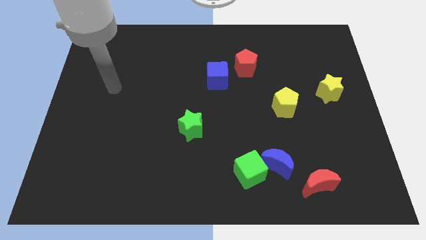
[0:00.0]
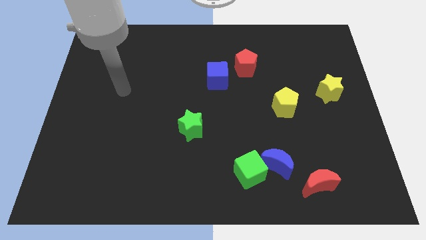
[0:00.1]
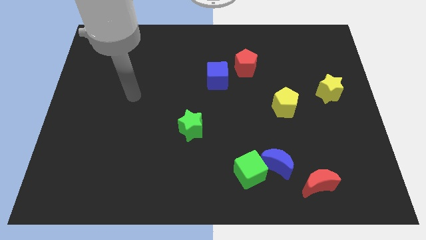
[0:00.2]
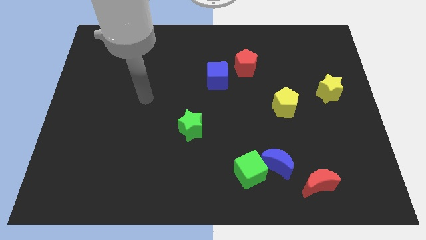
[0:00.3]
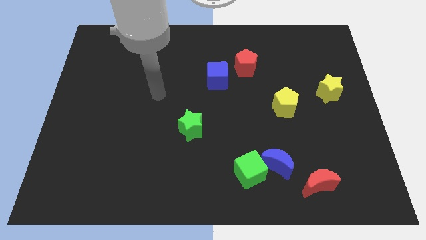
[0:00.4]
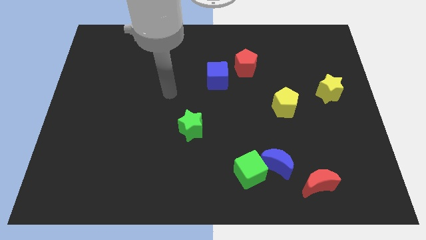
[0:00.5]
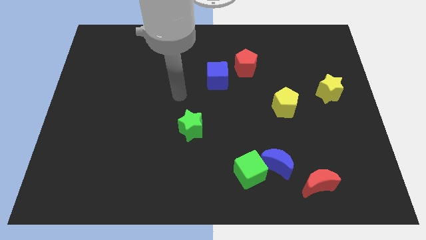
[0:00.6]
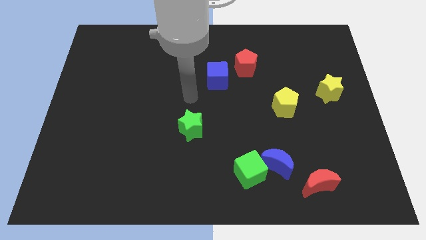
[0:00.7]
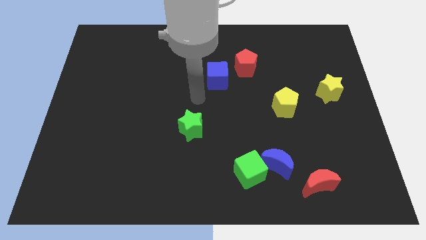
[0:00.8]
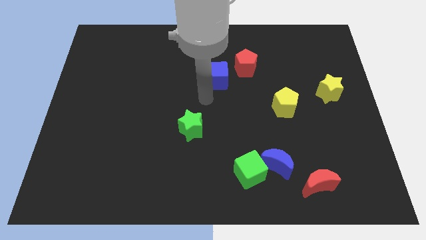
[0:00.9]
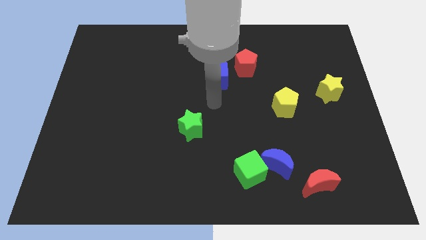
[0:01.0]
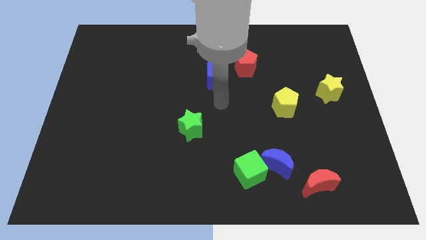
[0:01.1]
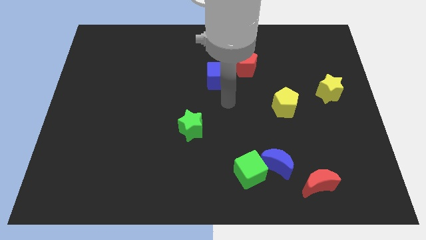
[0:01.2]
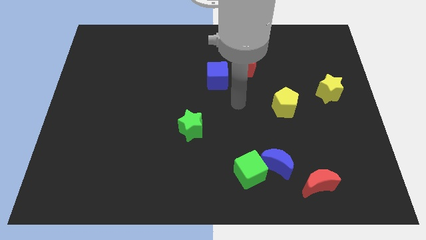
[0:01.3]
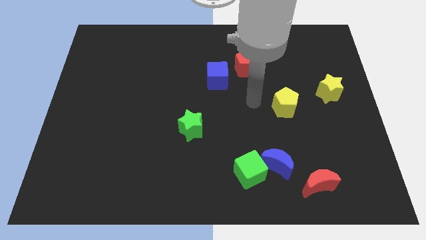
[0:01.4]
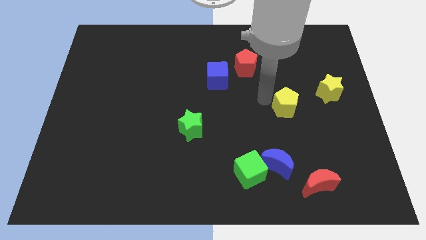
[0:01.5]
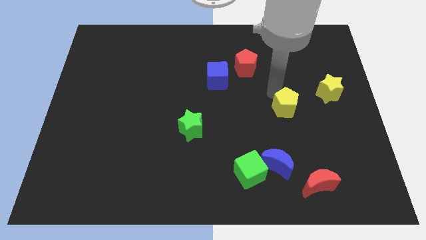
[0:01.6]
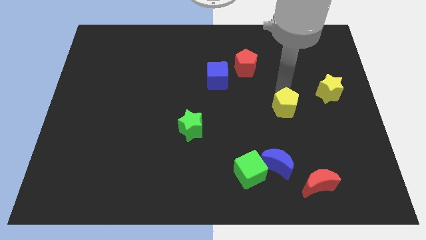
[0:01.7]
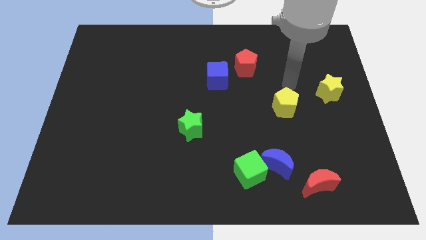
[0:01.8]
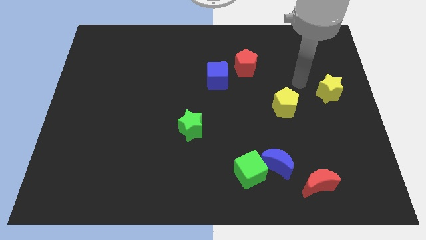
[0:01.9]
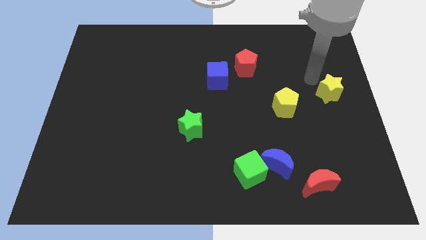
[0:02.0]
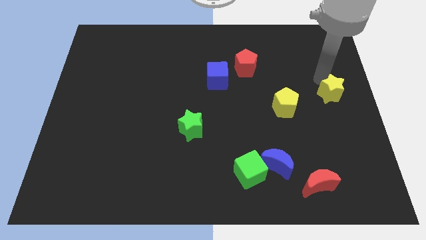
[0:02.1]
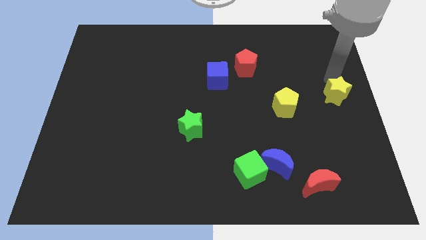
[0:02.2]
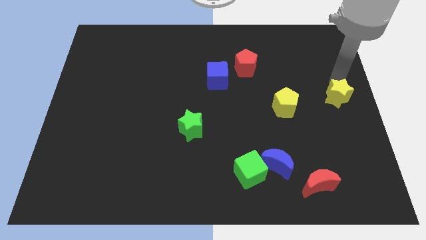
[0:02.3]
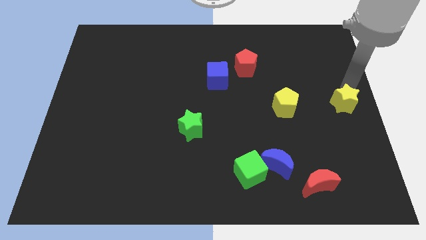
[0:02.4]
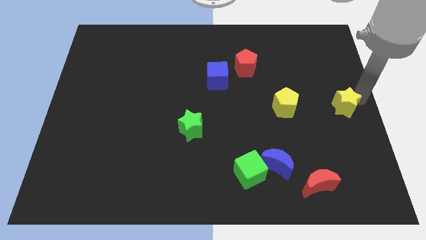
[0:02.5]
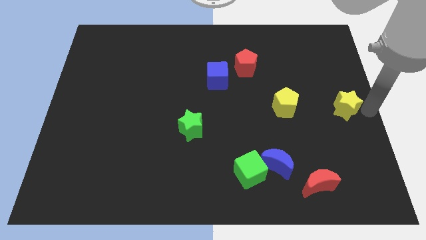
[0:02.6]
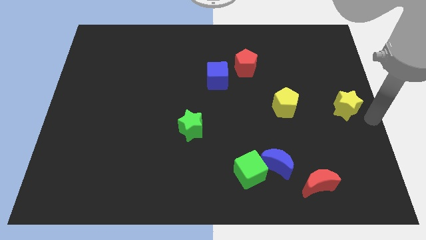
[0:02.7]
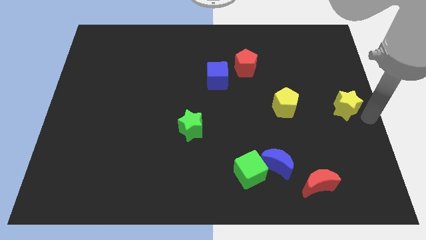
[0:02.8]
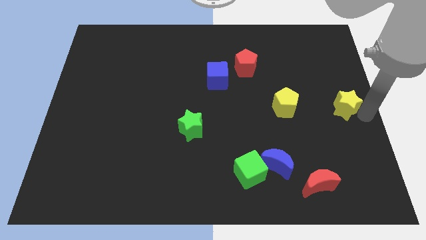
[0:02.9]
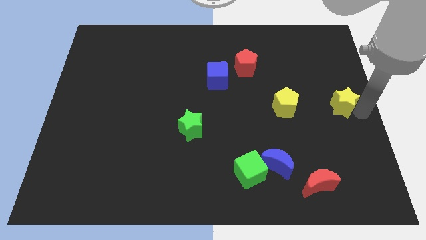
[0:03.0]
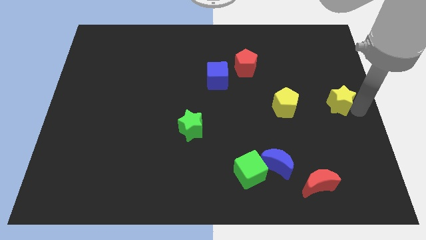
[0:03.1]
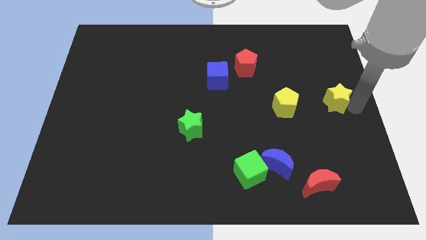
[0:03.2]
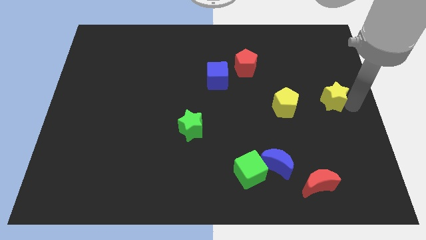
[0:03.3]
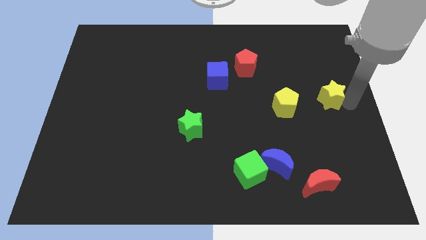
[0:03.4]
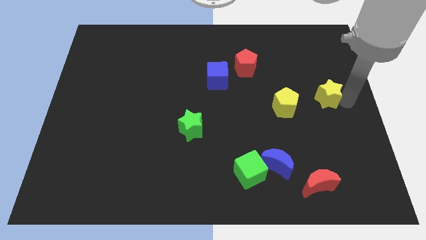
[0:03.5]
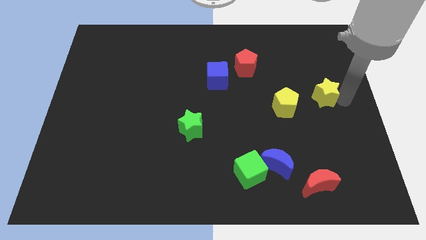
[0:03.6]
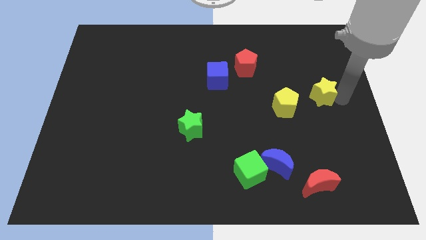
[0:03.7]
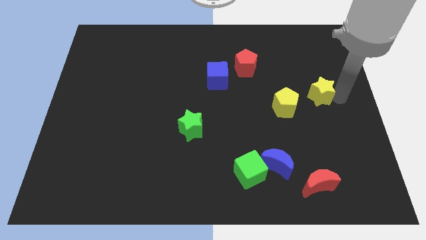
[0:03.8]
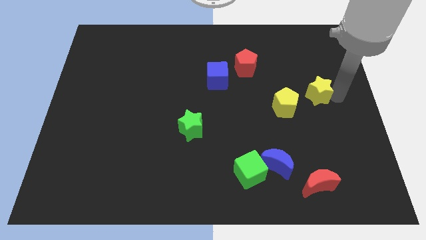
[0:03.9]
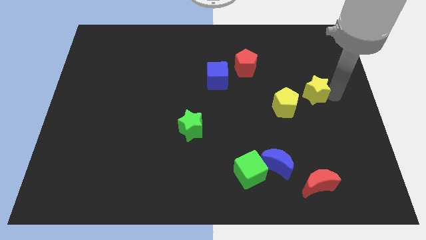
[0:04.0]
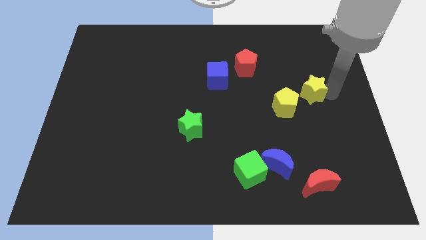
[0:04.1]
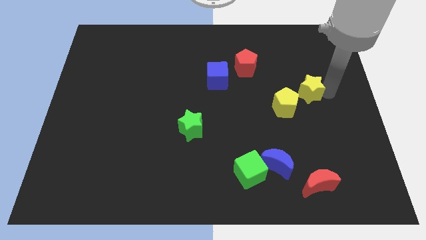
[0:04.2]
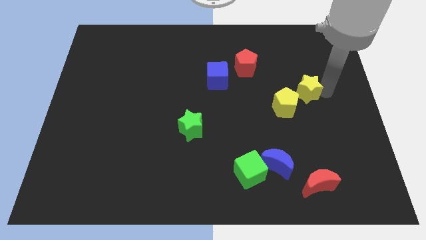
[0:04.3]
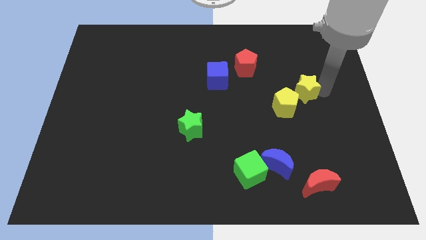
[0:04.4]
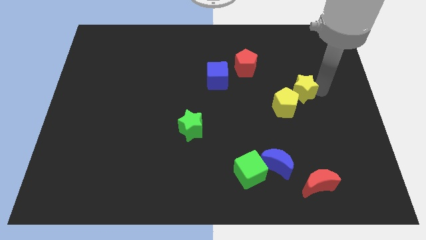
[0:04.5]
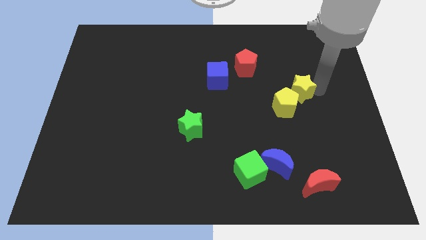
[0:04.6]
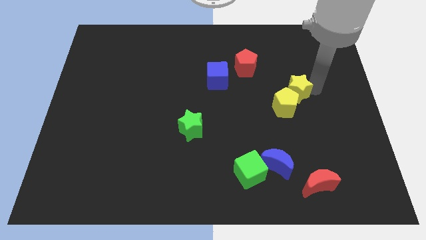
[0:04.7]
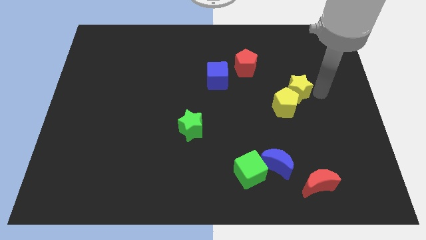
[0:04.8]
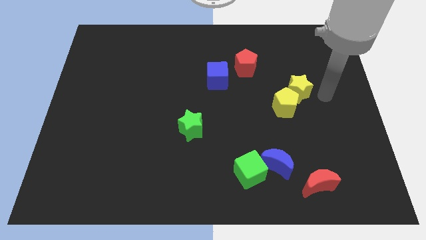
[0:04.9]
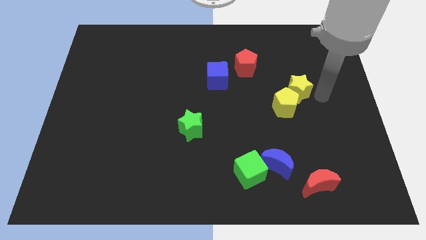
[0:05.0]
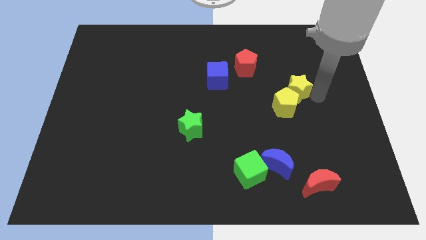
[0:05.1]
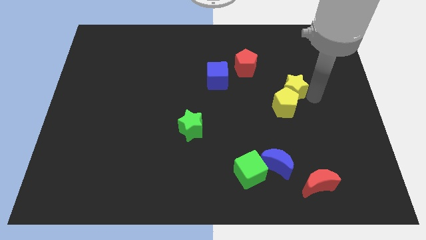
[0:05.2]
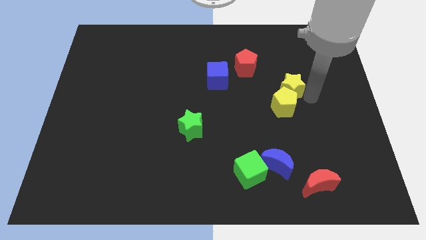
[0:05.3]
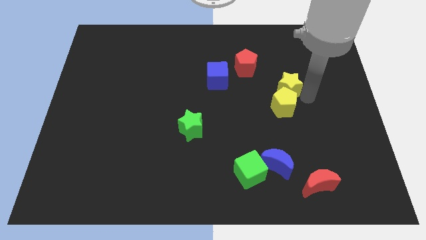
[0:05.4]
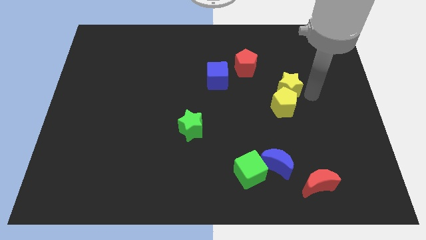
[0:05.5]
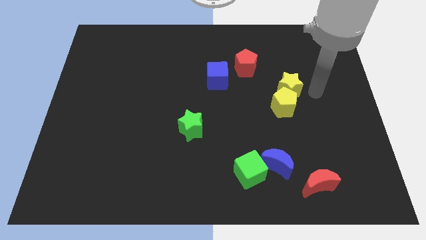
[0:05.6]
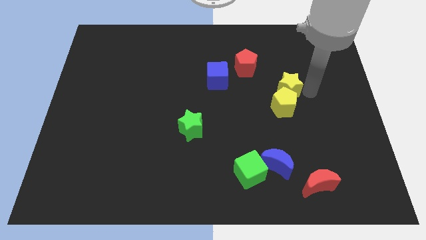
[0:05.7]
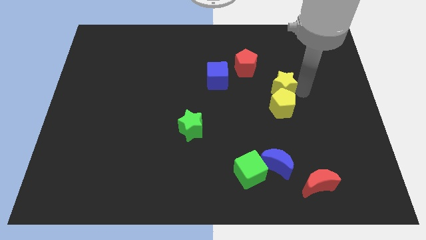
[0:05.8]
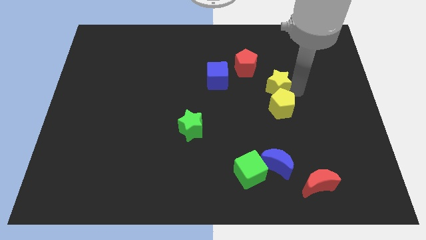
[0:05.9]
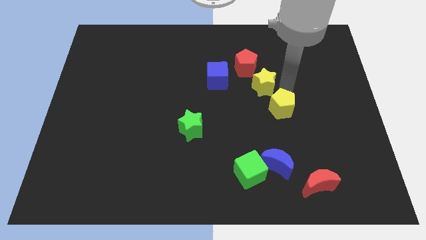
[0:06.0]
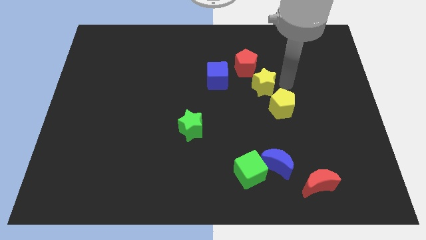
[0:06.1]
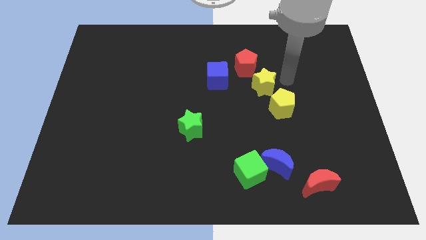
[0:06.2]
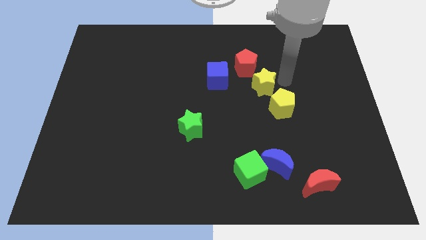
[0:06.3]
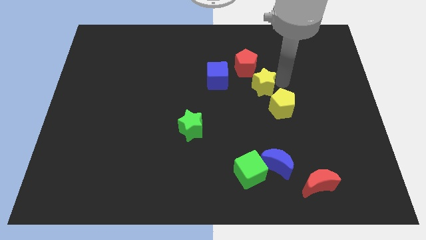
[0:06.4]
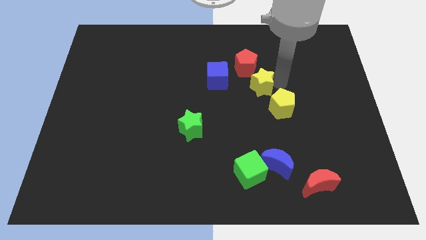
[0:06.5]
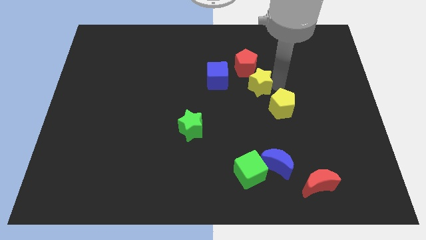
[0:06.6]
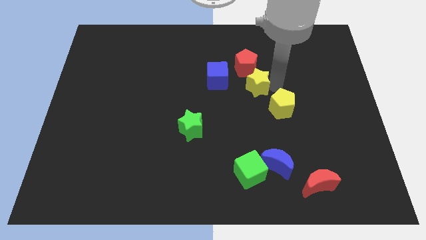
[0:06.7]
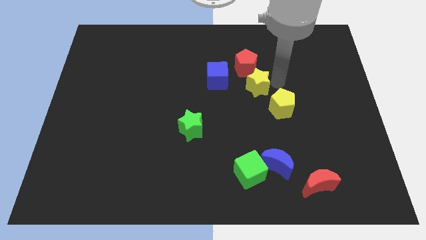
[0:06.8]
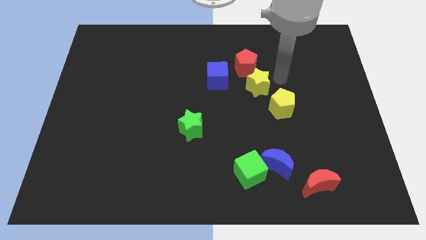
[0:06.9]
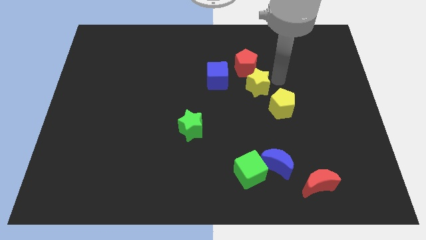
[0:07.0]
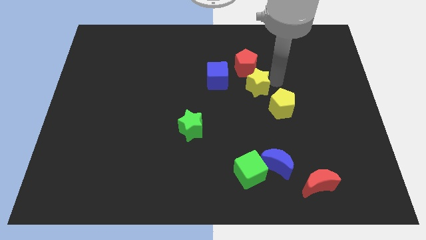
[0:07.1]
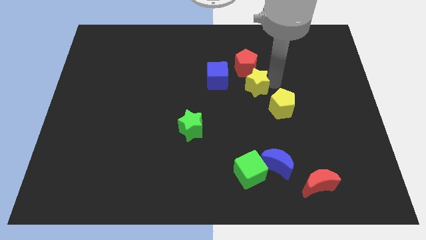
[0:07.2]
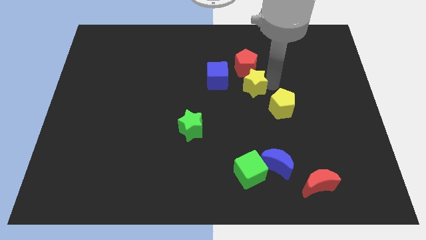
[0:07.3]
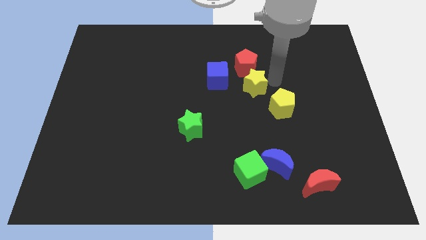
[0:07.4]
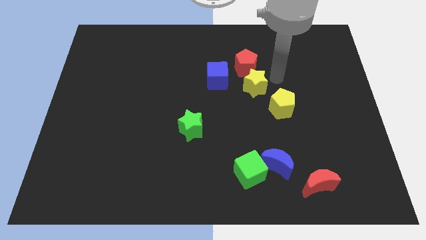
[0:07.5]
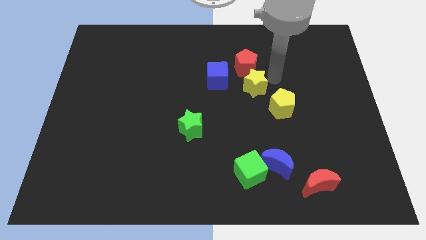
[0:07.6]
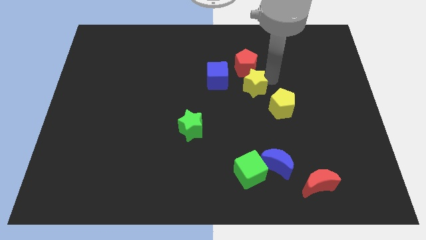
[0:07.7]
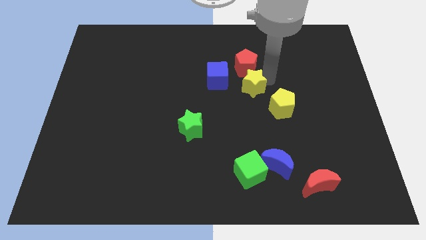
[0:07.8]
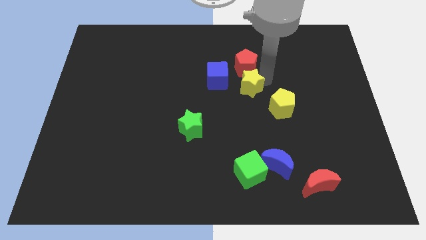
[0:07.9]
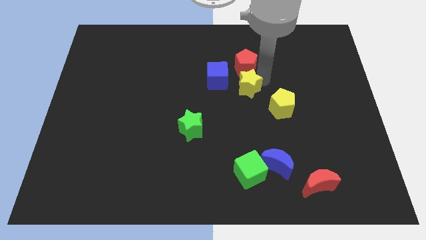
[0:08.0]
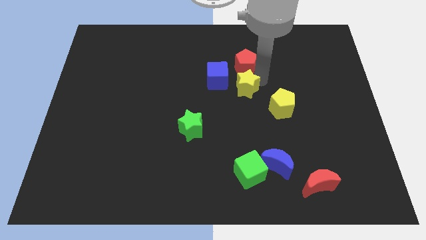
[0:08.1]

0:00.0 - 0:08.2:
push the yellow star to the left
